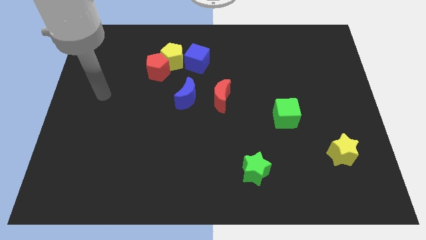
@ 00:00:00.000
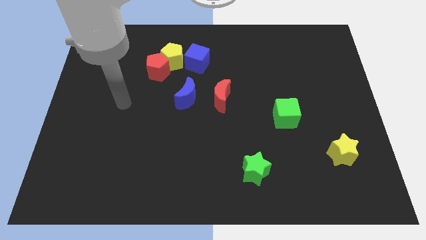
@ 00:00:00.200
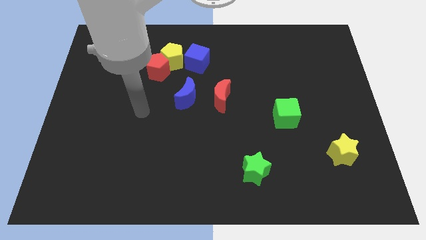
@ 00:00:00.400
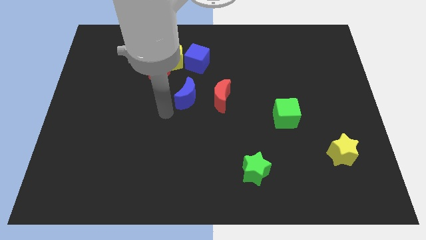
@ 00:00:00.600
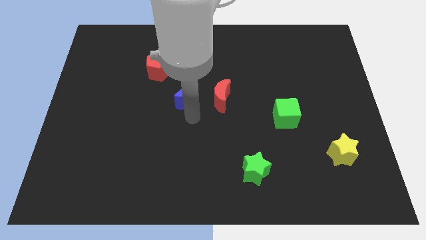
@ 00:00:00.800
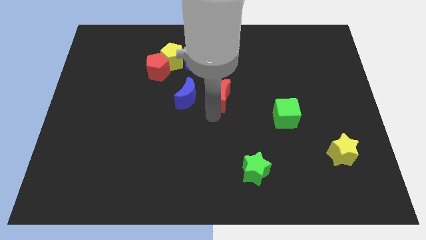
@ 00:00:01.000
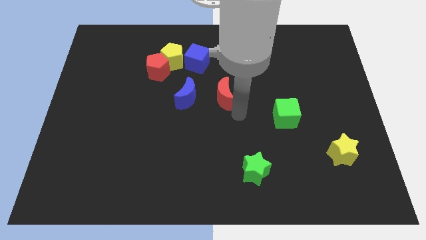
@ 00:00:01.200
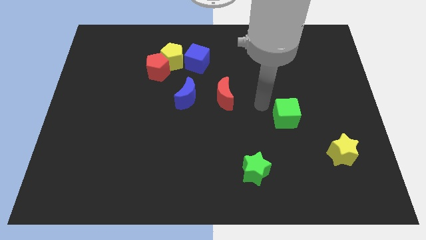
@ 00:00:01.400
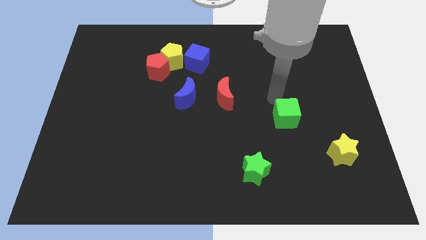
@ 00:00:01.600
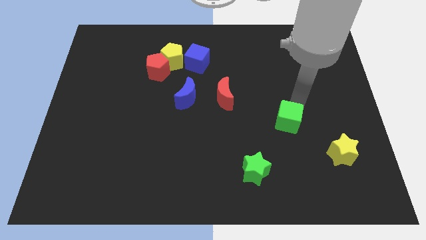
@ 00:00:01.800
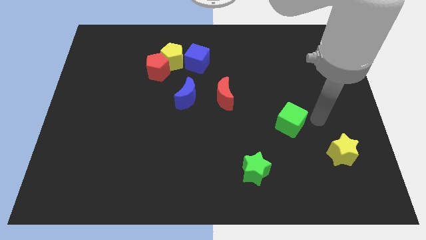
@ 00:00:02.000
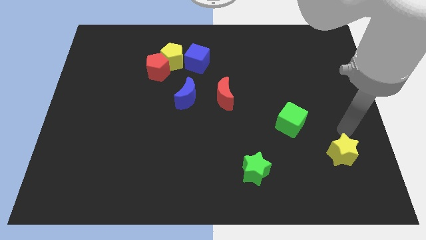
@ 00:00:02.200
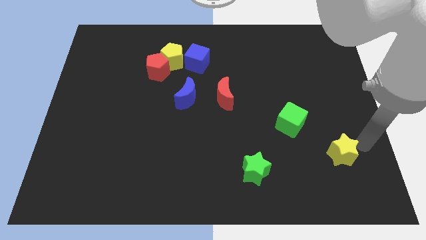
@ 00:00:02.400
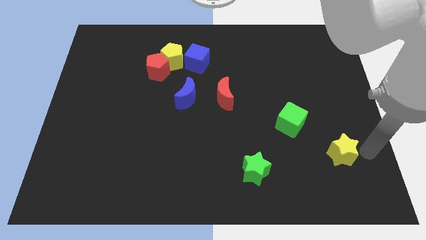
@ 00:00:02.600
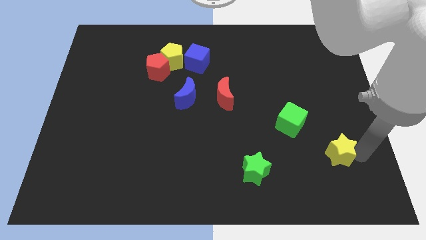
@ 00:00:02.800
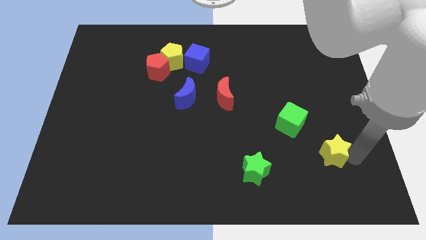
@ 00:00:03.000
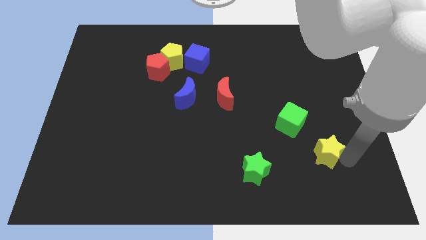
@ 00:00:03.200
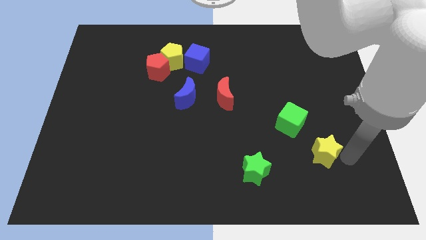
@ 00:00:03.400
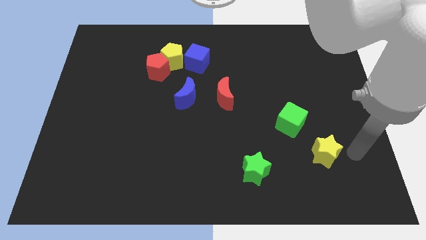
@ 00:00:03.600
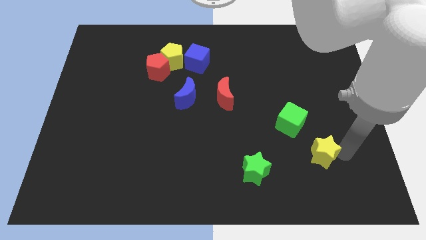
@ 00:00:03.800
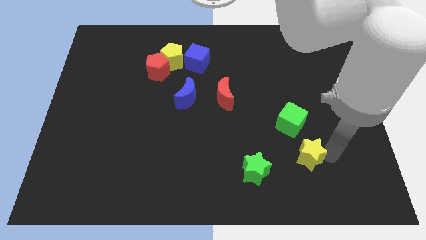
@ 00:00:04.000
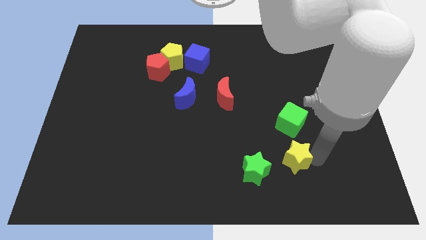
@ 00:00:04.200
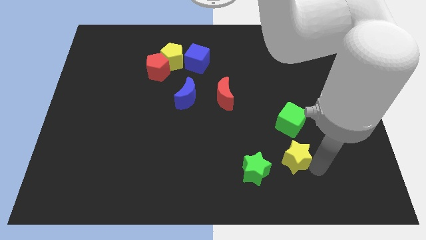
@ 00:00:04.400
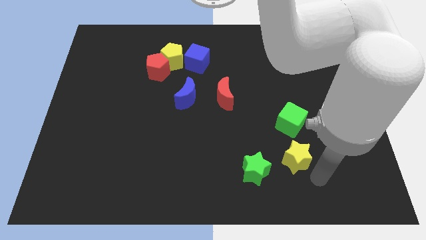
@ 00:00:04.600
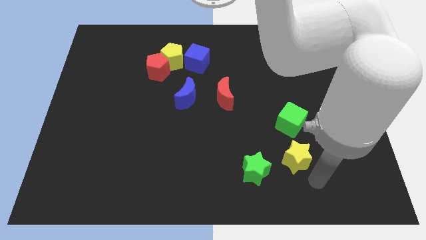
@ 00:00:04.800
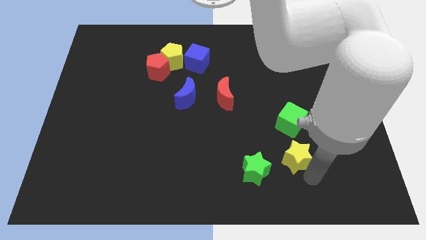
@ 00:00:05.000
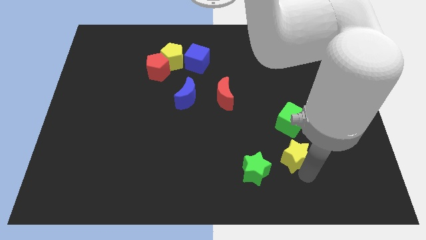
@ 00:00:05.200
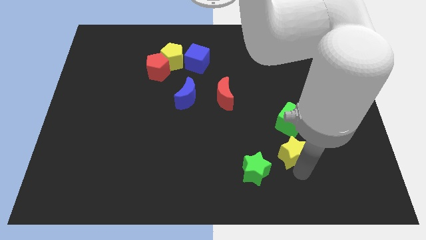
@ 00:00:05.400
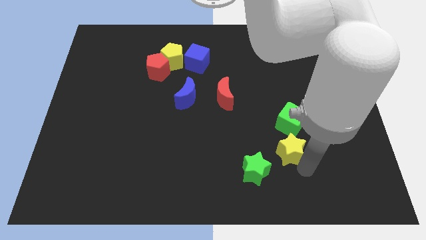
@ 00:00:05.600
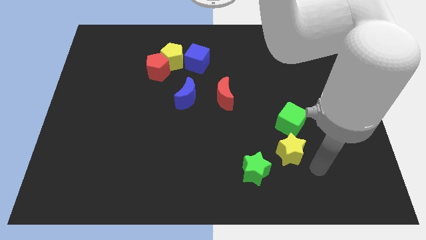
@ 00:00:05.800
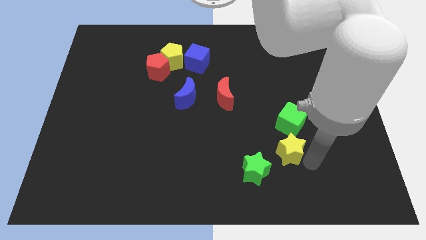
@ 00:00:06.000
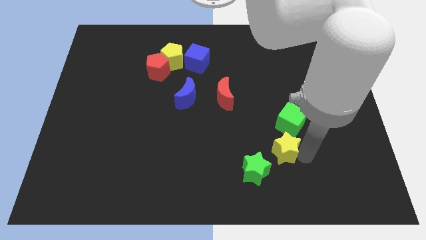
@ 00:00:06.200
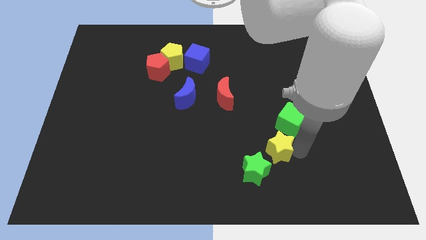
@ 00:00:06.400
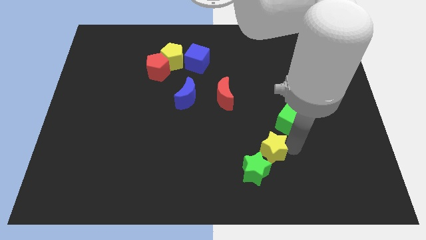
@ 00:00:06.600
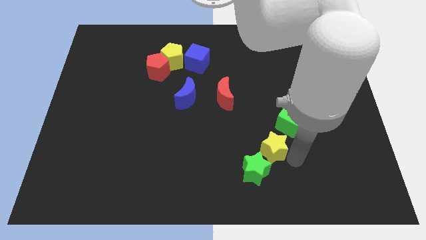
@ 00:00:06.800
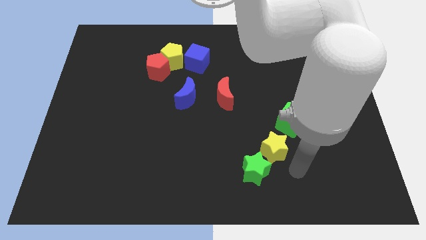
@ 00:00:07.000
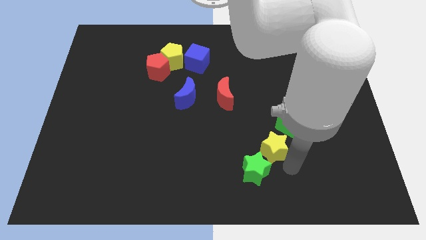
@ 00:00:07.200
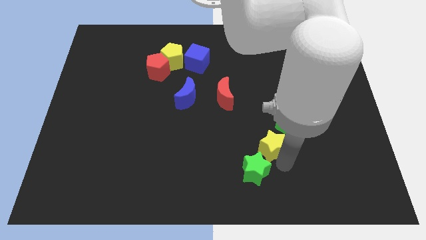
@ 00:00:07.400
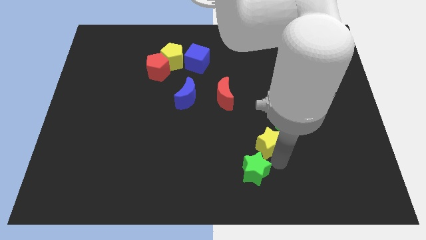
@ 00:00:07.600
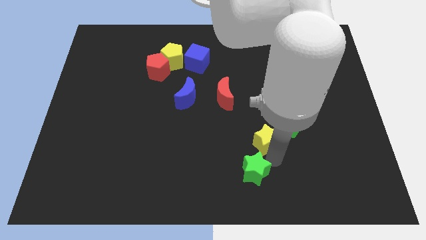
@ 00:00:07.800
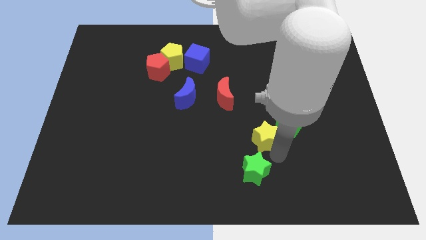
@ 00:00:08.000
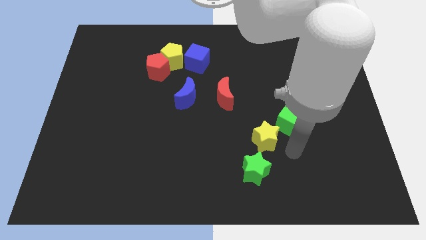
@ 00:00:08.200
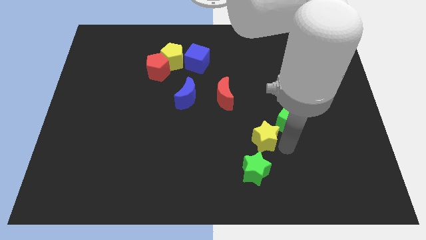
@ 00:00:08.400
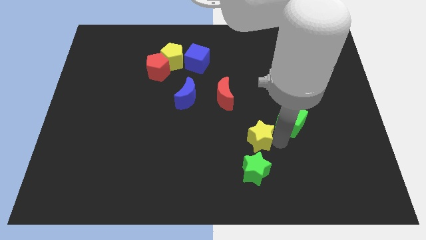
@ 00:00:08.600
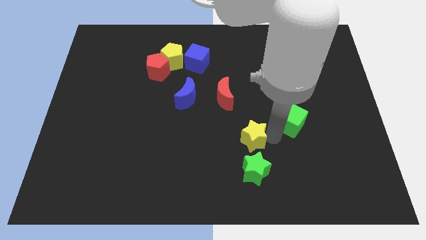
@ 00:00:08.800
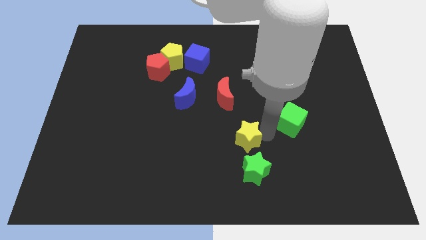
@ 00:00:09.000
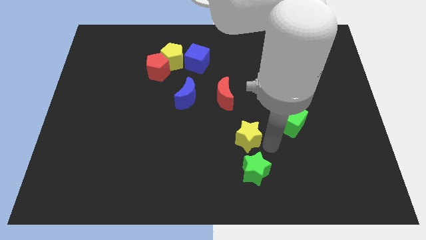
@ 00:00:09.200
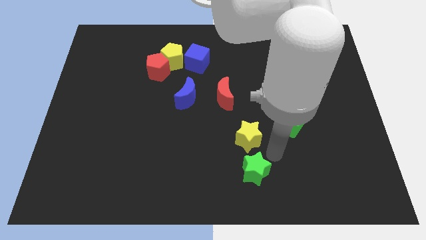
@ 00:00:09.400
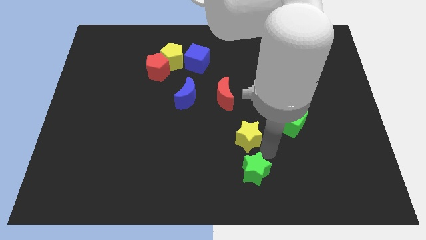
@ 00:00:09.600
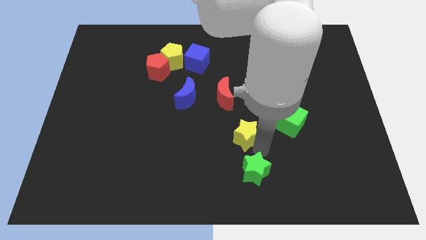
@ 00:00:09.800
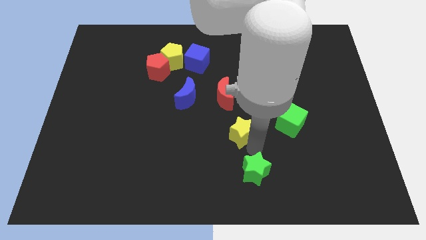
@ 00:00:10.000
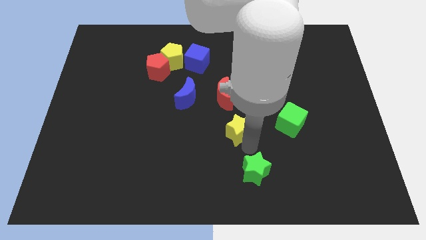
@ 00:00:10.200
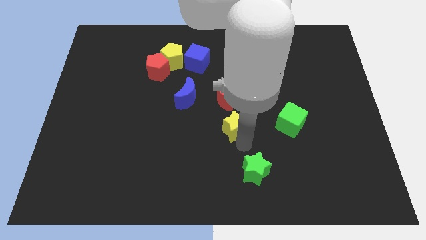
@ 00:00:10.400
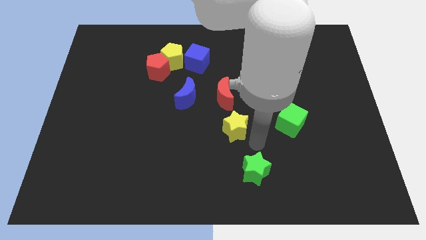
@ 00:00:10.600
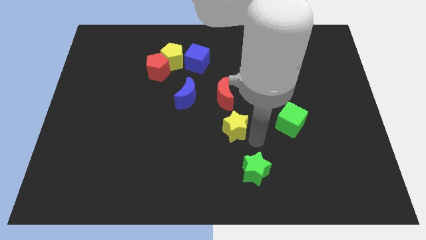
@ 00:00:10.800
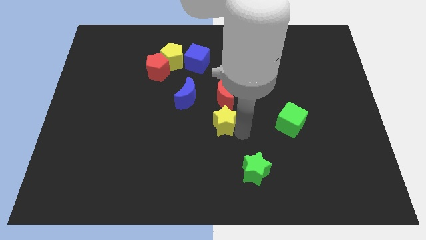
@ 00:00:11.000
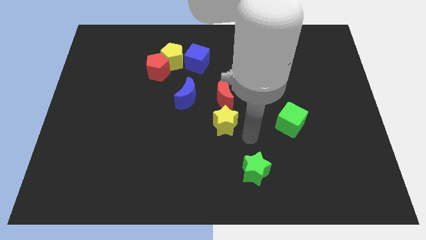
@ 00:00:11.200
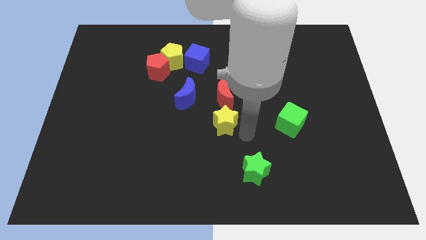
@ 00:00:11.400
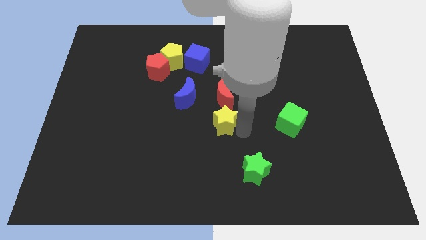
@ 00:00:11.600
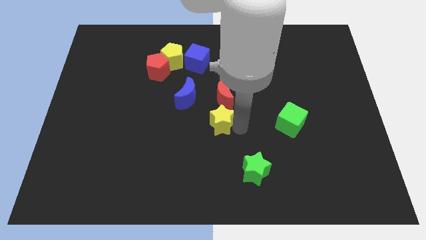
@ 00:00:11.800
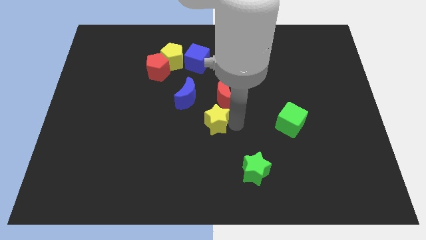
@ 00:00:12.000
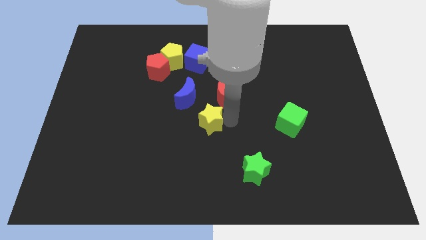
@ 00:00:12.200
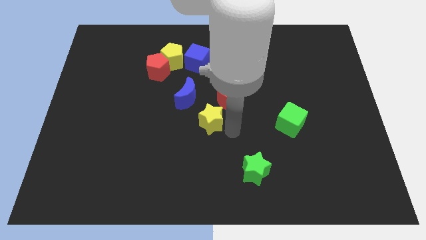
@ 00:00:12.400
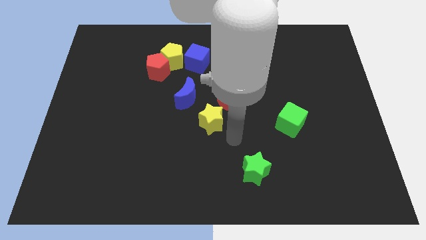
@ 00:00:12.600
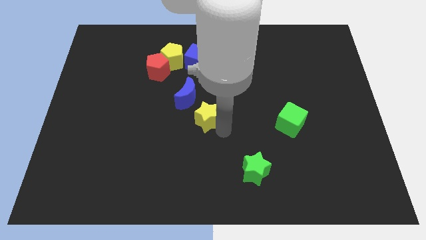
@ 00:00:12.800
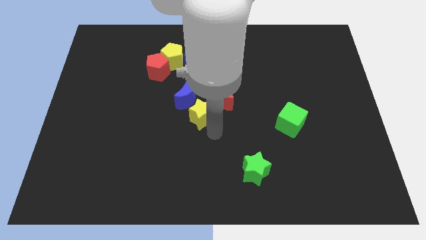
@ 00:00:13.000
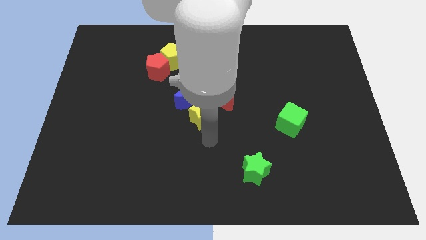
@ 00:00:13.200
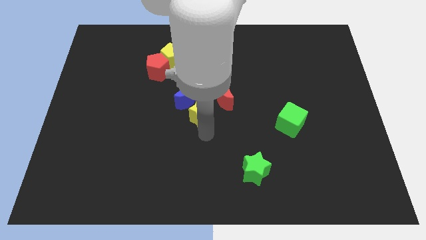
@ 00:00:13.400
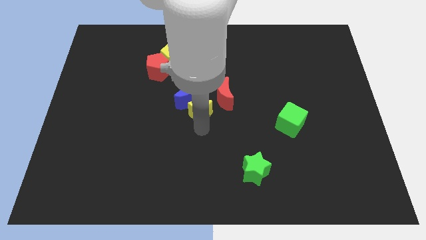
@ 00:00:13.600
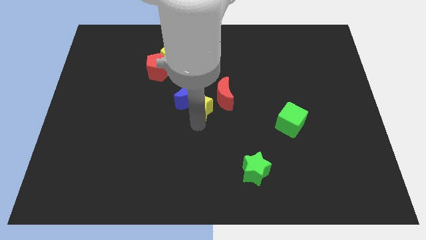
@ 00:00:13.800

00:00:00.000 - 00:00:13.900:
move the yellow star to the bottom side of the blue cube
